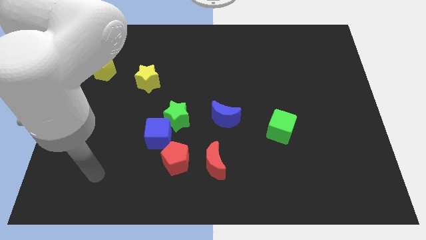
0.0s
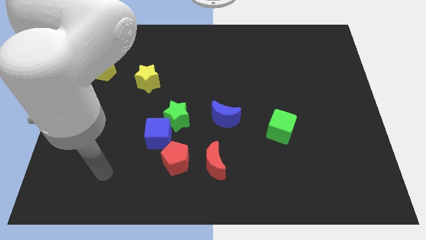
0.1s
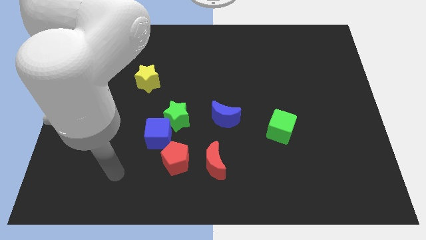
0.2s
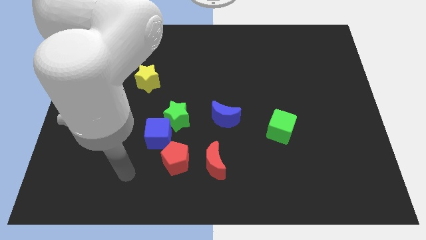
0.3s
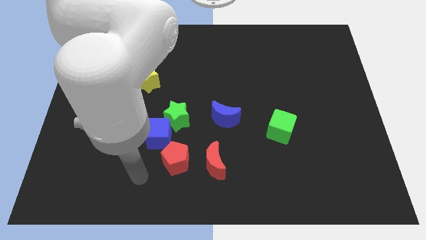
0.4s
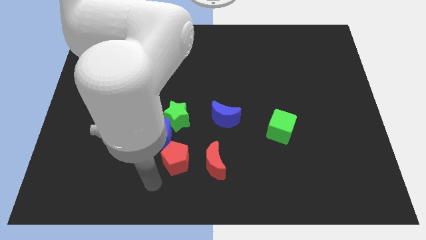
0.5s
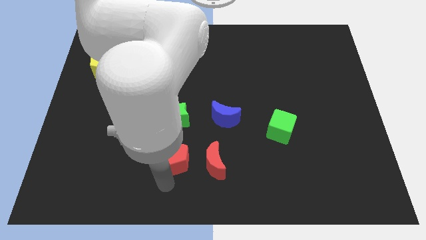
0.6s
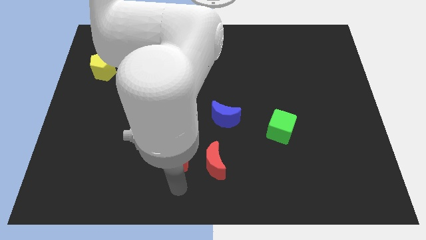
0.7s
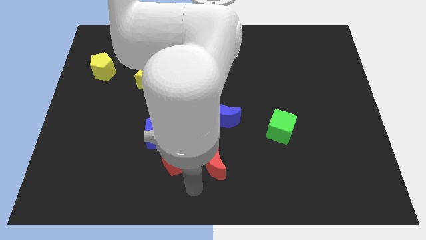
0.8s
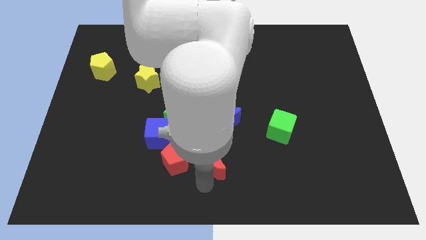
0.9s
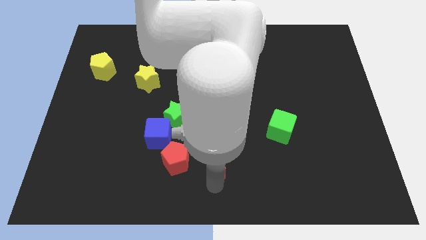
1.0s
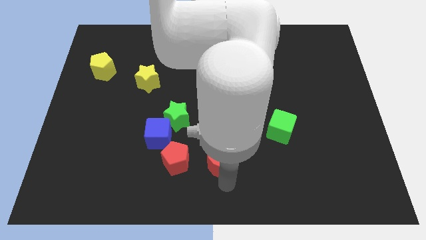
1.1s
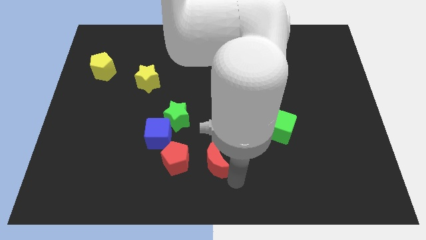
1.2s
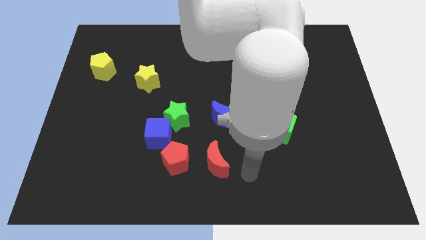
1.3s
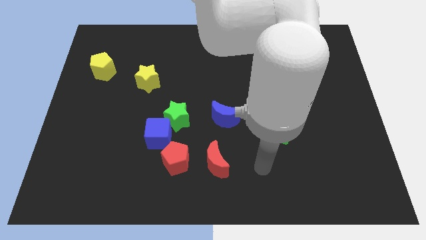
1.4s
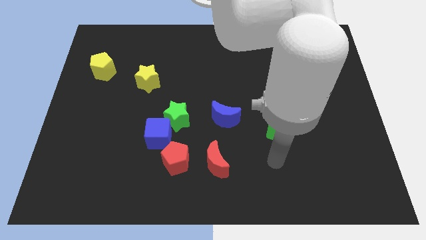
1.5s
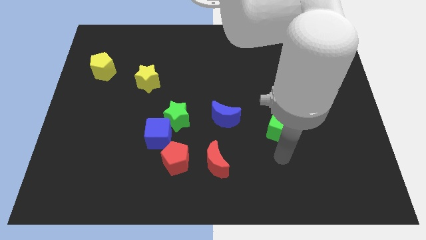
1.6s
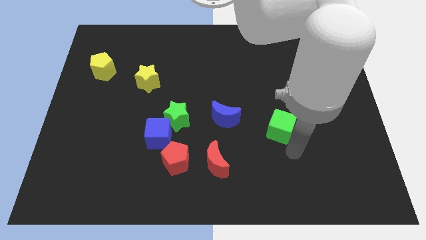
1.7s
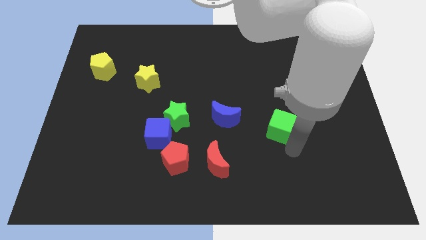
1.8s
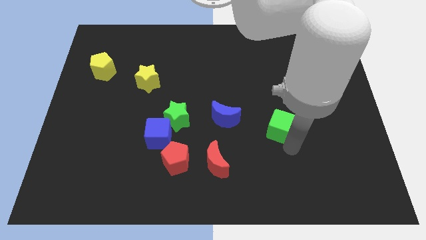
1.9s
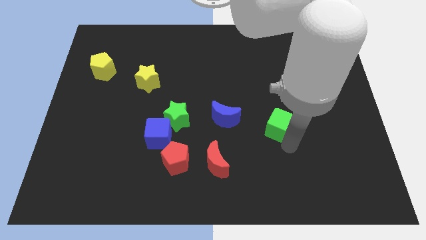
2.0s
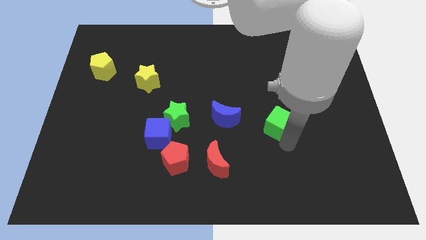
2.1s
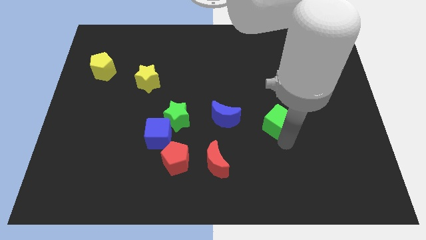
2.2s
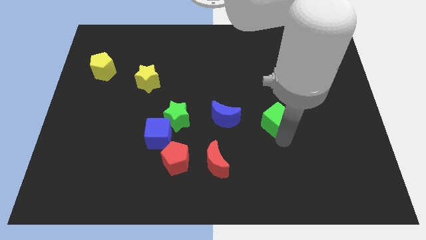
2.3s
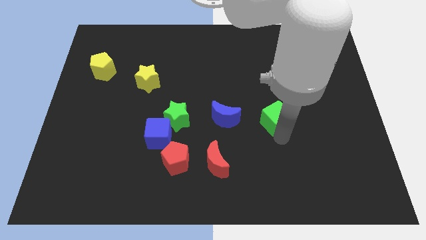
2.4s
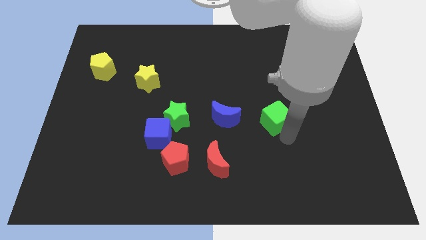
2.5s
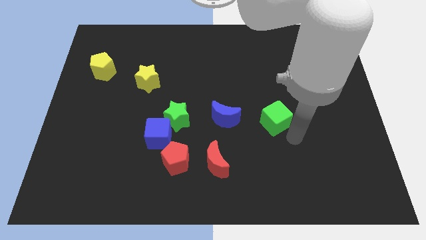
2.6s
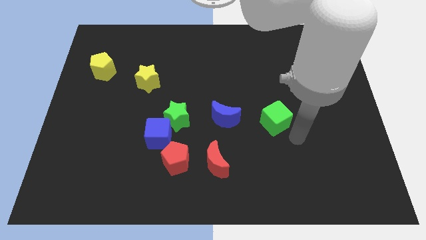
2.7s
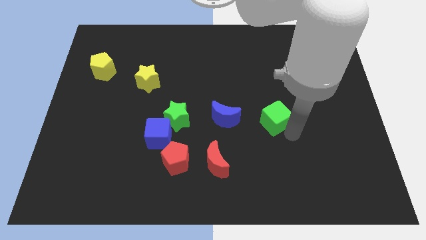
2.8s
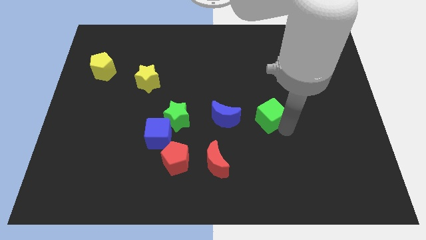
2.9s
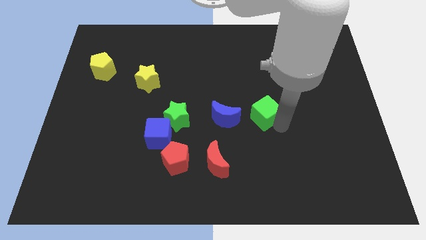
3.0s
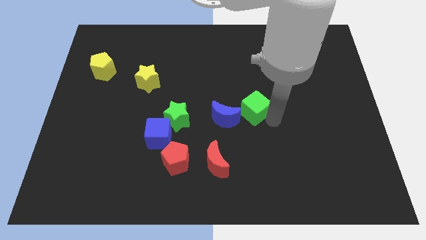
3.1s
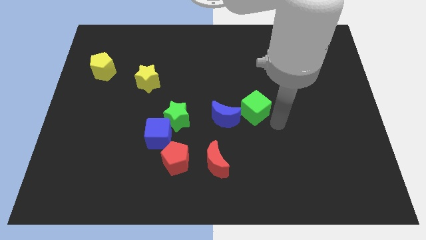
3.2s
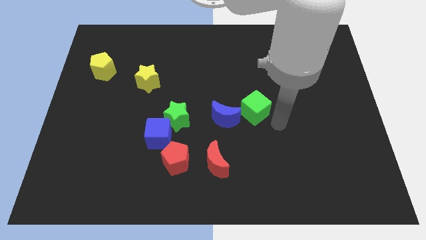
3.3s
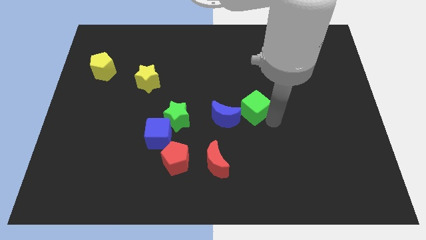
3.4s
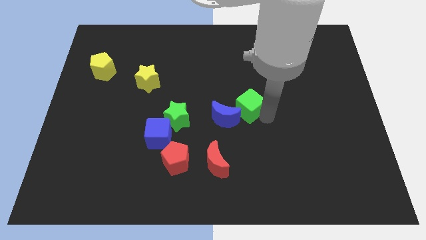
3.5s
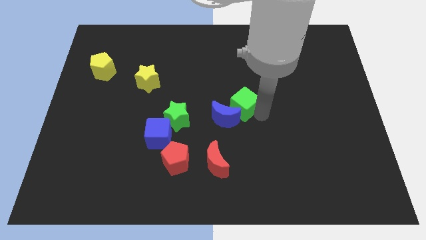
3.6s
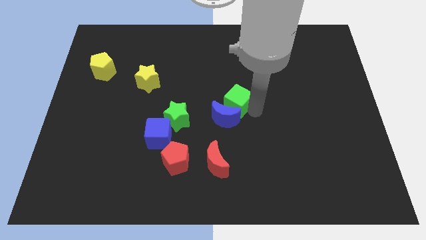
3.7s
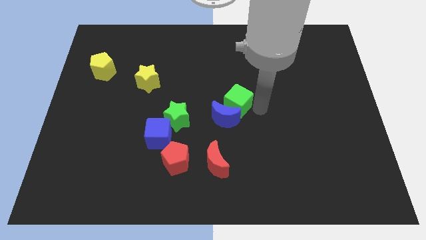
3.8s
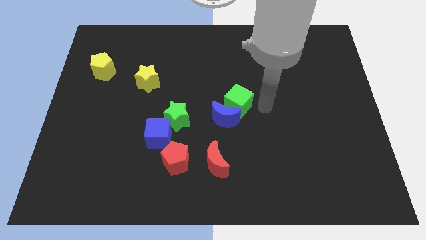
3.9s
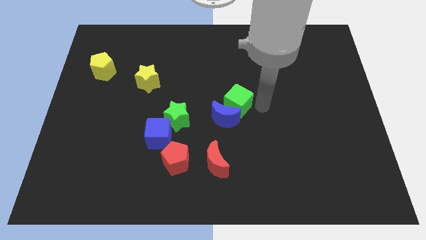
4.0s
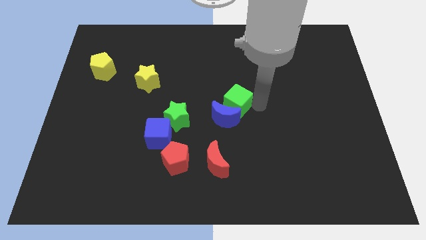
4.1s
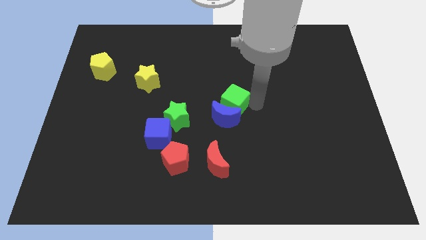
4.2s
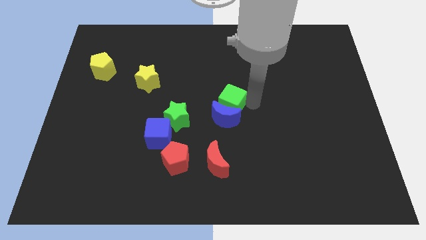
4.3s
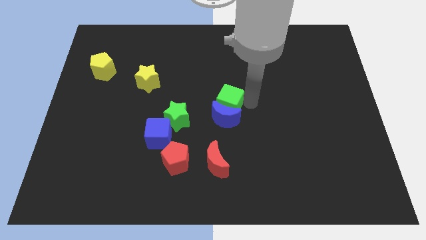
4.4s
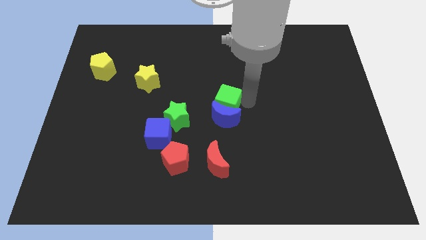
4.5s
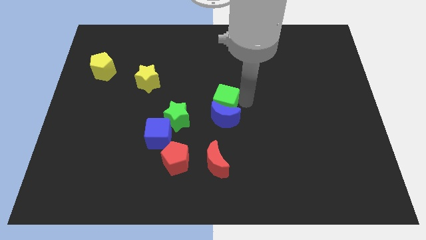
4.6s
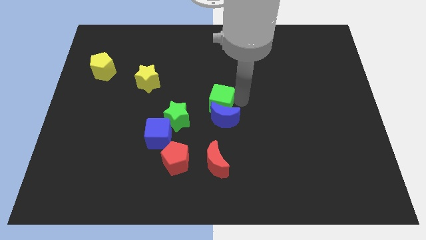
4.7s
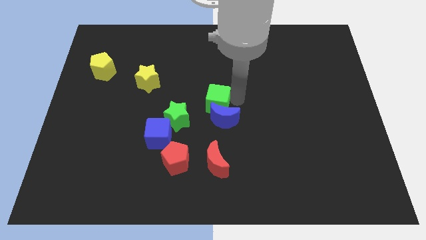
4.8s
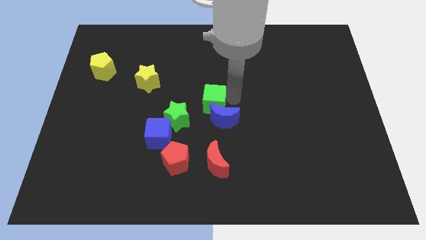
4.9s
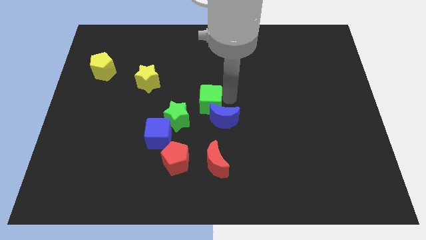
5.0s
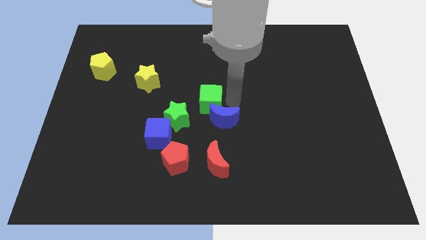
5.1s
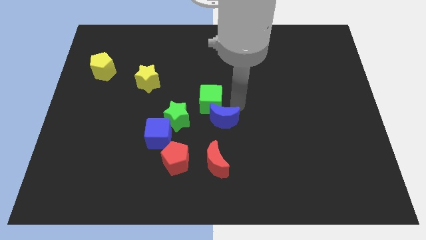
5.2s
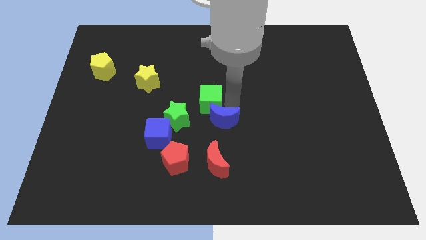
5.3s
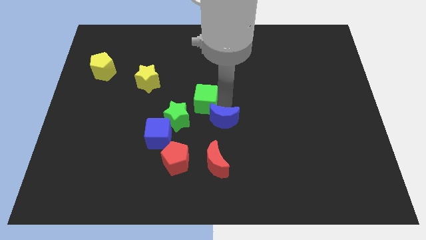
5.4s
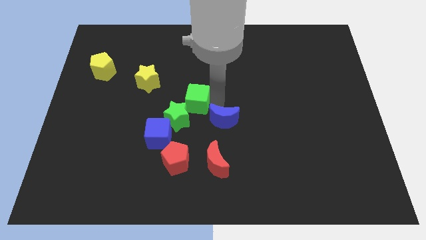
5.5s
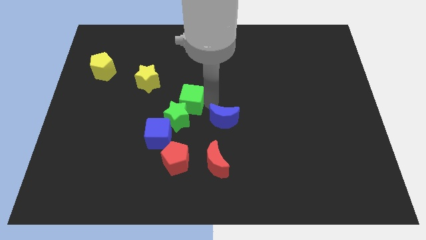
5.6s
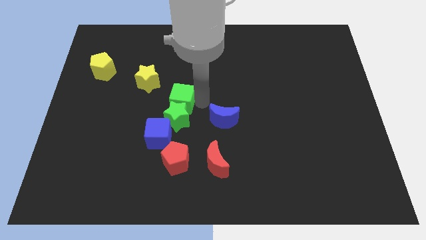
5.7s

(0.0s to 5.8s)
slide the green cube to the left

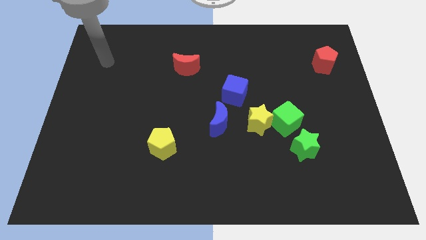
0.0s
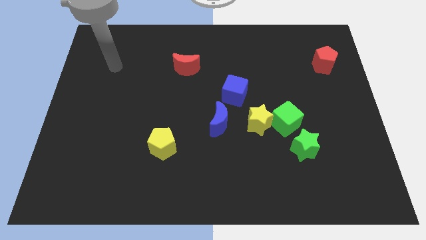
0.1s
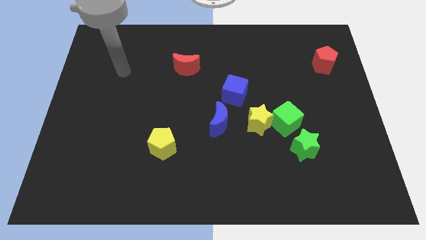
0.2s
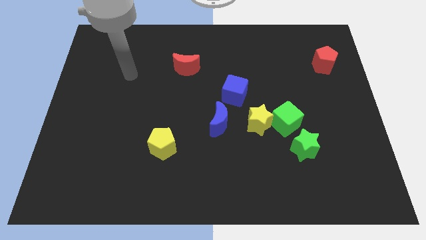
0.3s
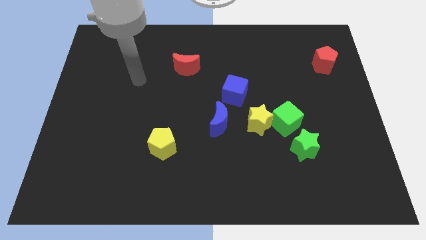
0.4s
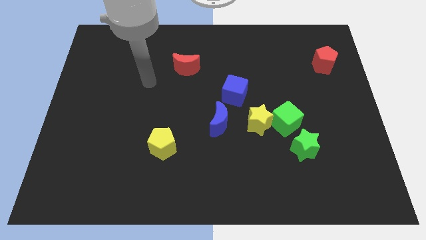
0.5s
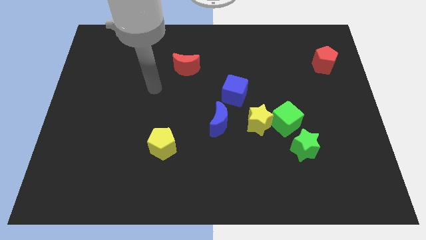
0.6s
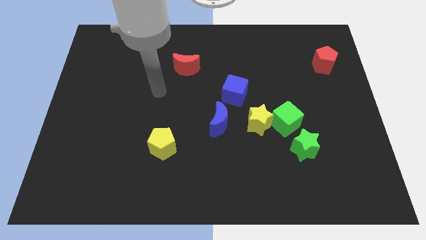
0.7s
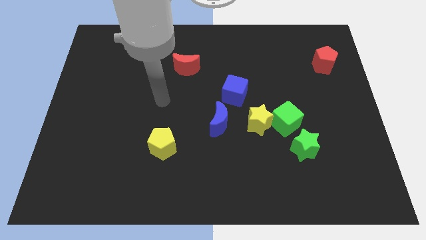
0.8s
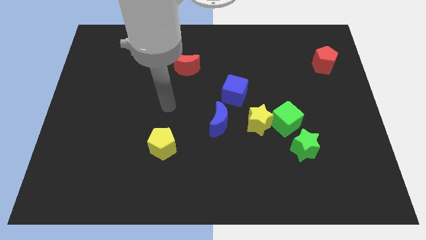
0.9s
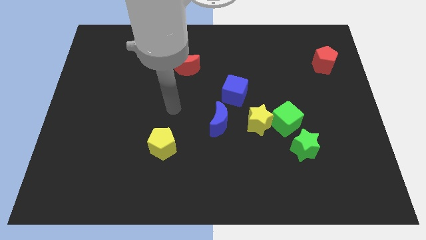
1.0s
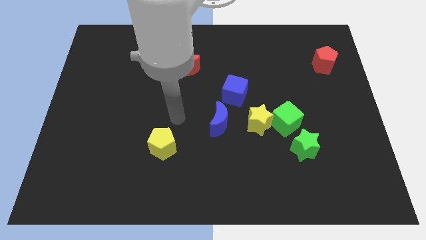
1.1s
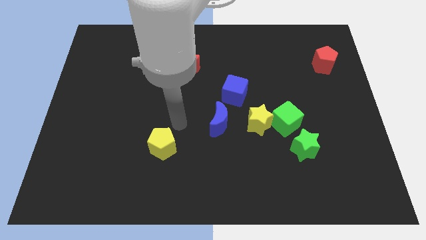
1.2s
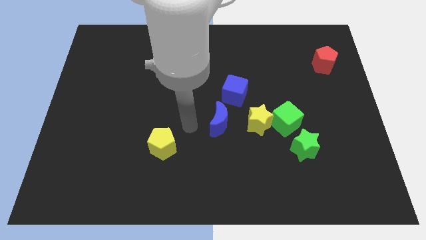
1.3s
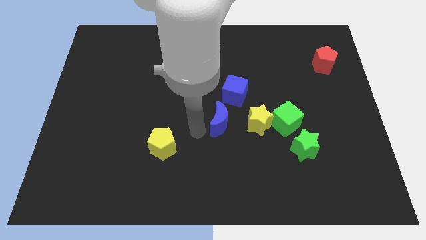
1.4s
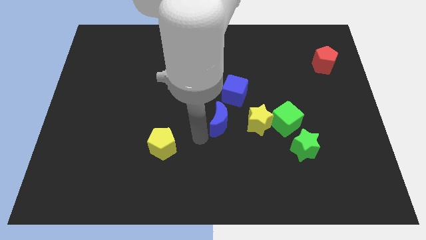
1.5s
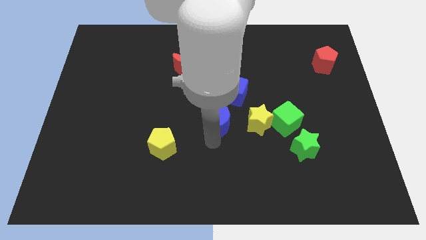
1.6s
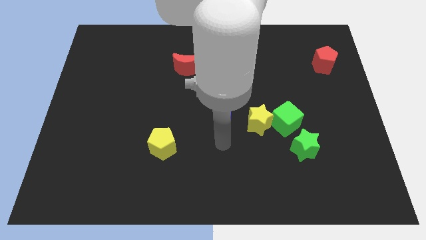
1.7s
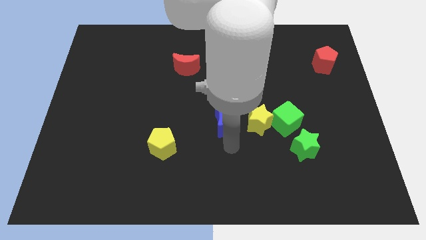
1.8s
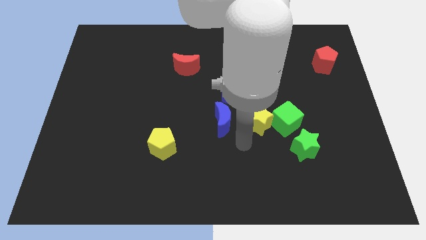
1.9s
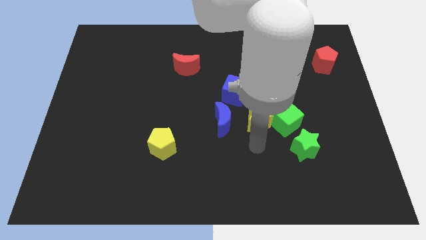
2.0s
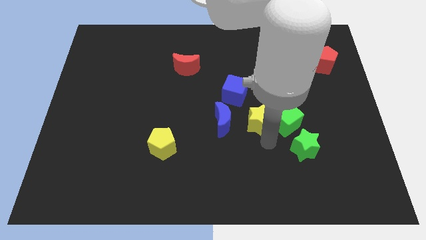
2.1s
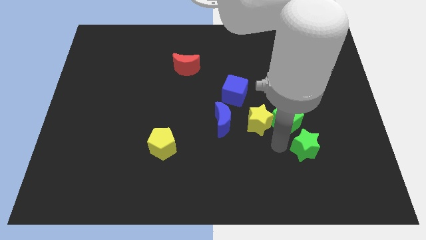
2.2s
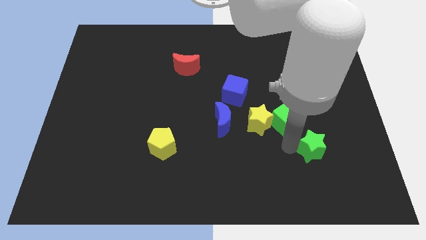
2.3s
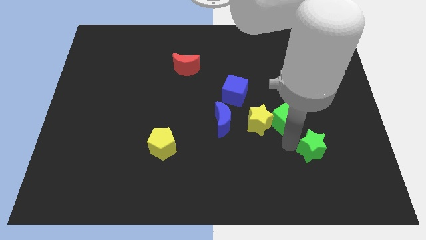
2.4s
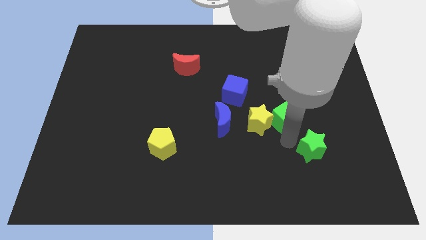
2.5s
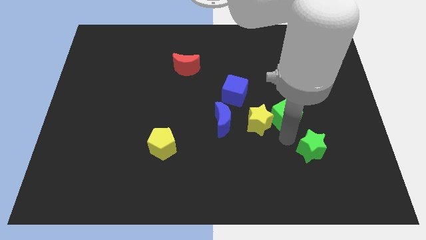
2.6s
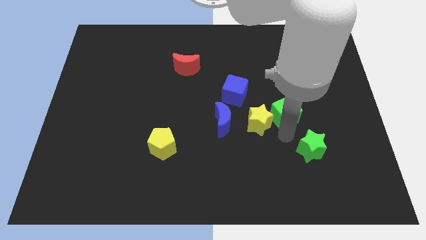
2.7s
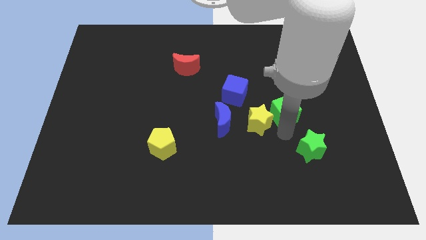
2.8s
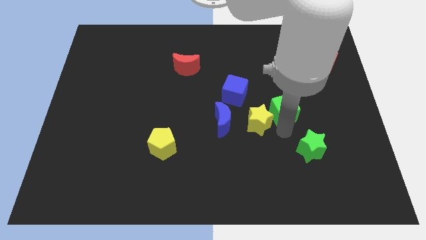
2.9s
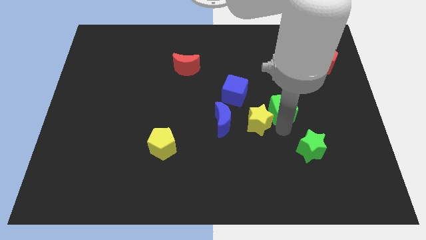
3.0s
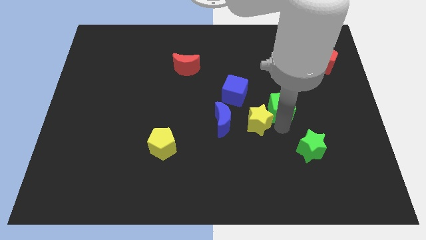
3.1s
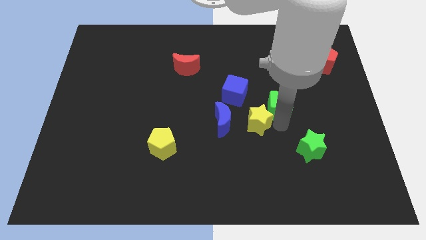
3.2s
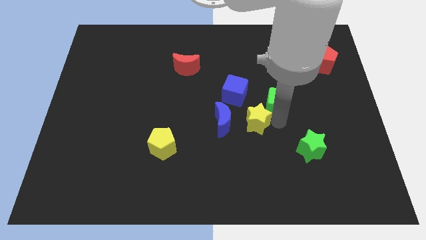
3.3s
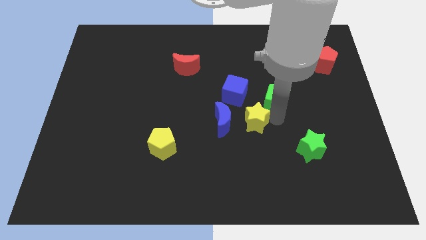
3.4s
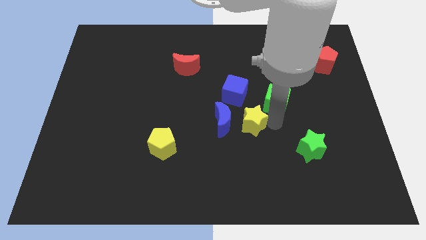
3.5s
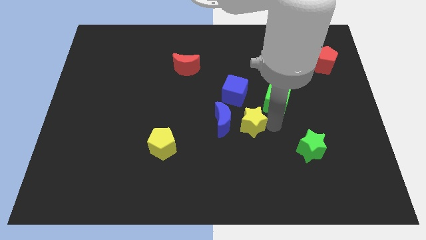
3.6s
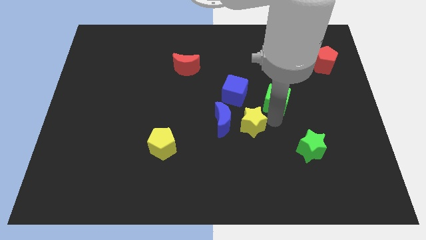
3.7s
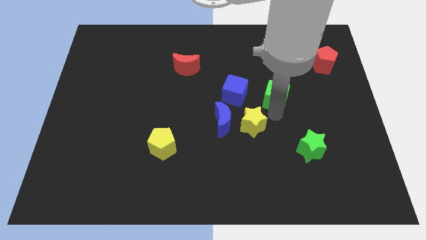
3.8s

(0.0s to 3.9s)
slightly move the green cube up
